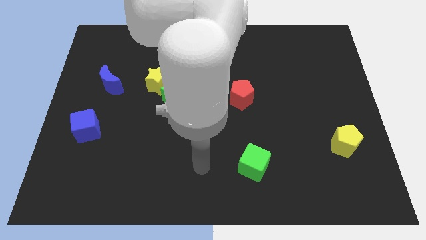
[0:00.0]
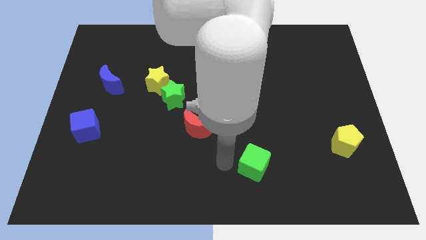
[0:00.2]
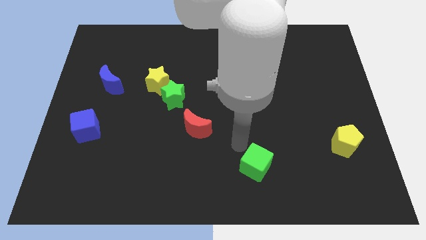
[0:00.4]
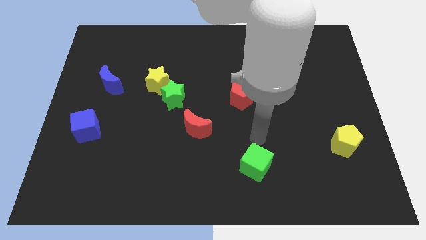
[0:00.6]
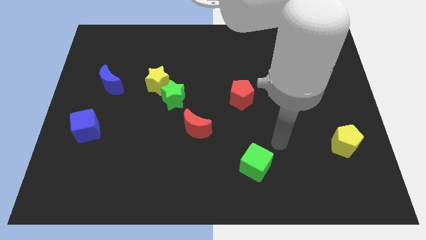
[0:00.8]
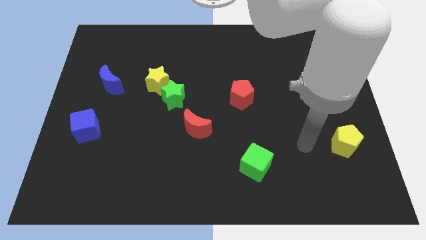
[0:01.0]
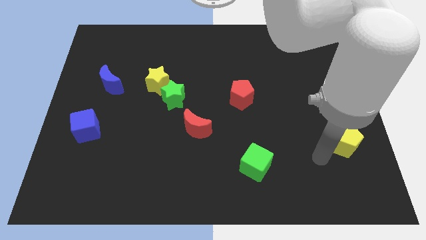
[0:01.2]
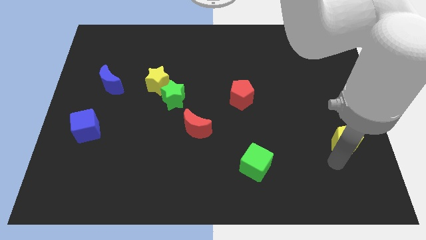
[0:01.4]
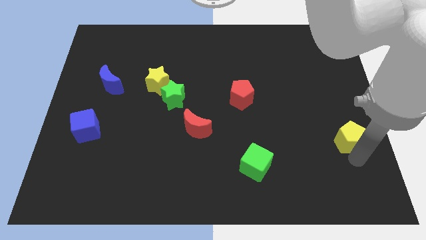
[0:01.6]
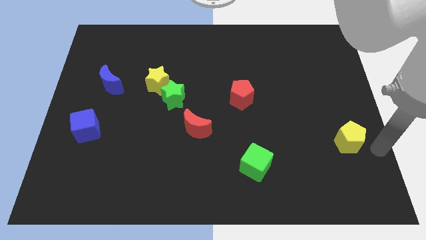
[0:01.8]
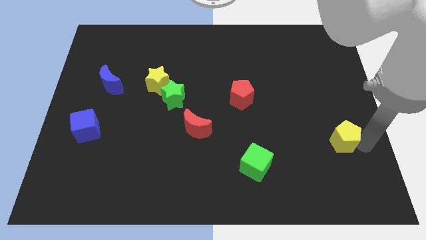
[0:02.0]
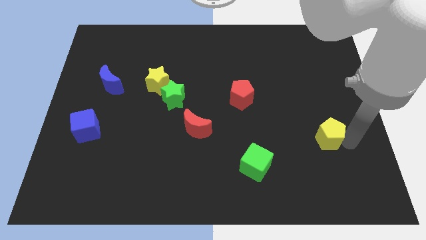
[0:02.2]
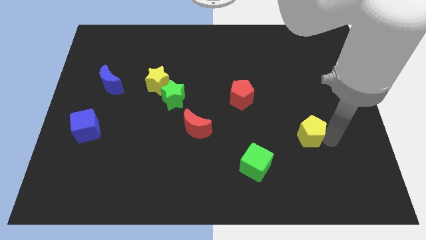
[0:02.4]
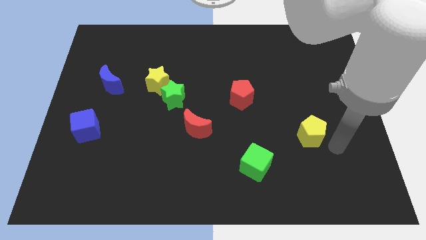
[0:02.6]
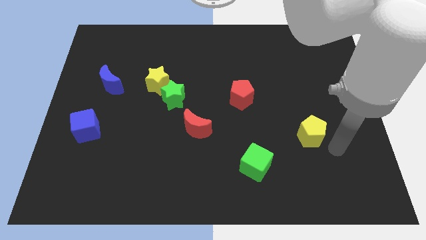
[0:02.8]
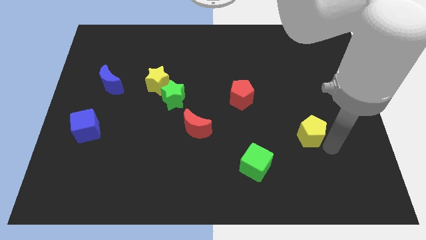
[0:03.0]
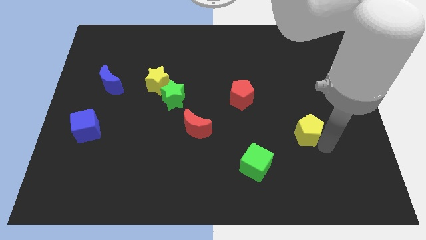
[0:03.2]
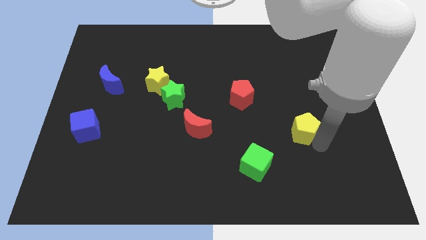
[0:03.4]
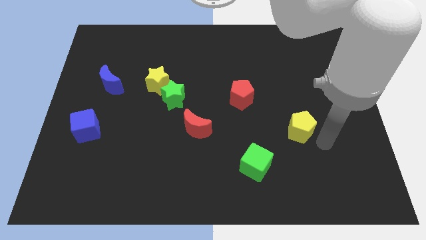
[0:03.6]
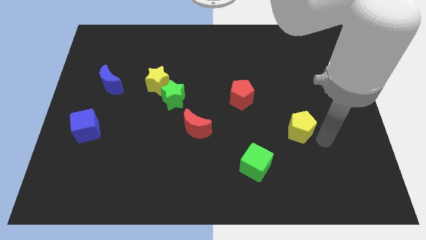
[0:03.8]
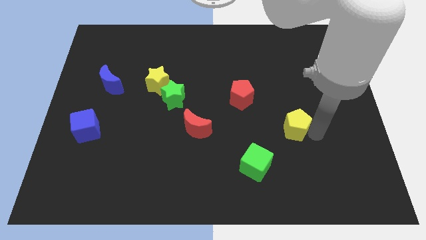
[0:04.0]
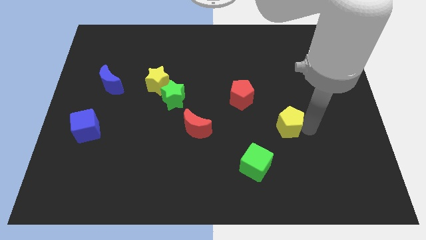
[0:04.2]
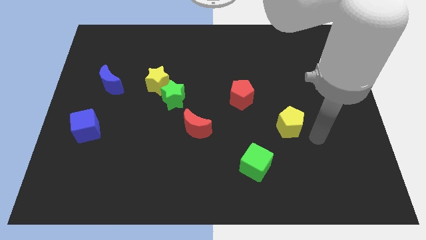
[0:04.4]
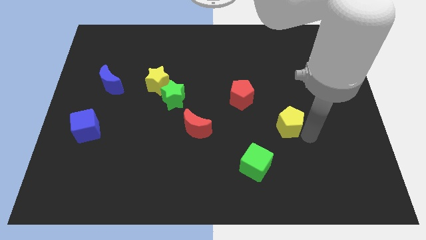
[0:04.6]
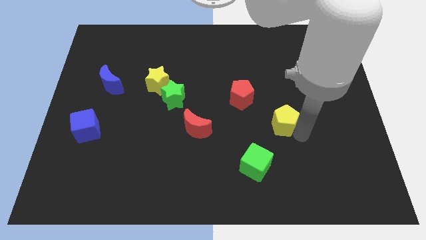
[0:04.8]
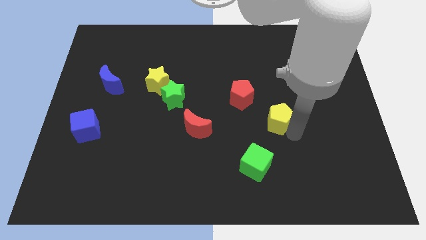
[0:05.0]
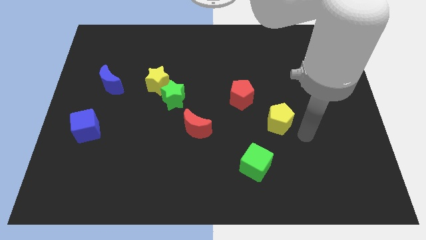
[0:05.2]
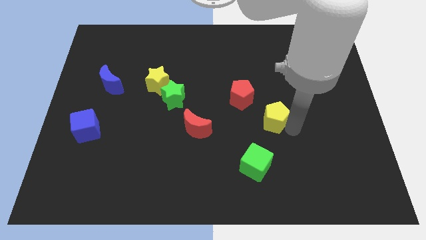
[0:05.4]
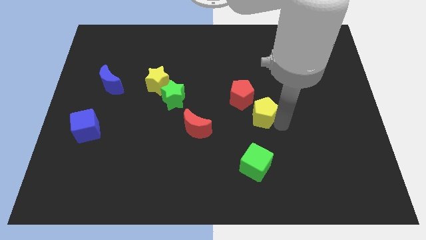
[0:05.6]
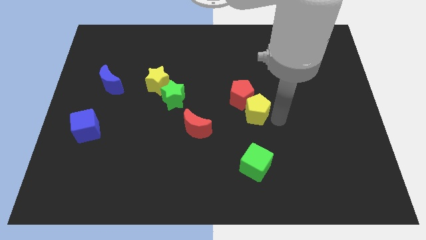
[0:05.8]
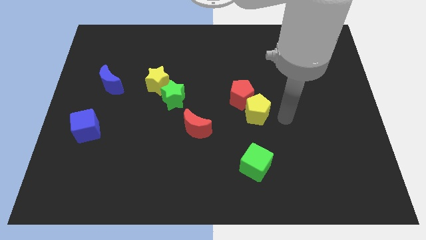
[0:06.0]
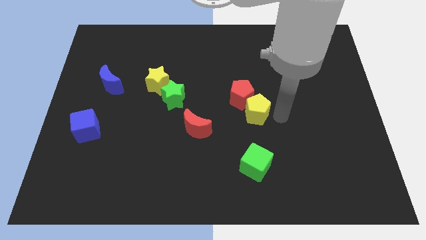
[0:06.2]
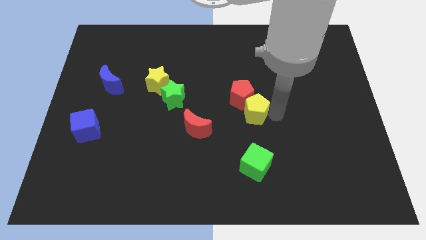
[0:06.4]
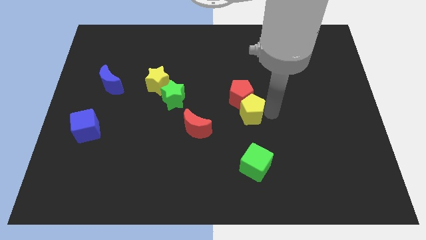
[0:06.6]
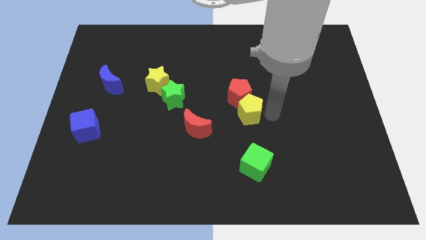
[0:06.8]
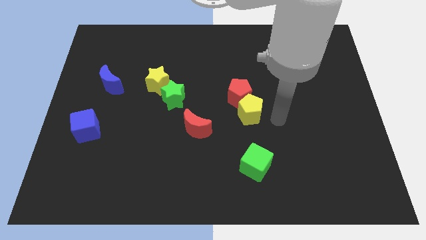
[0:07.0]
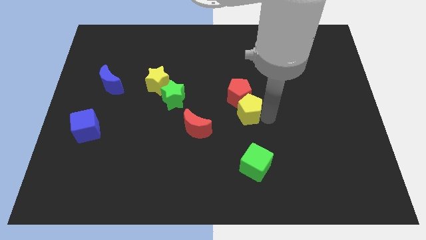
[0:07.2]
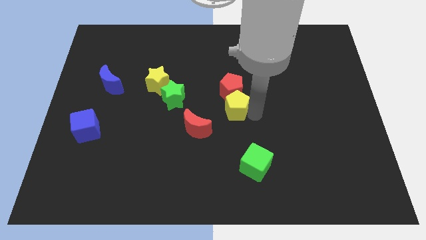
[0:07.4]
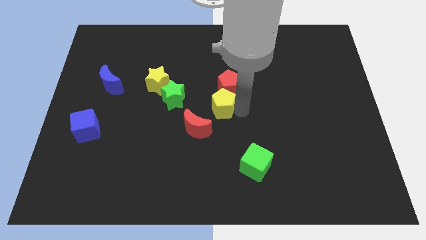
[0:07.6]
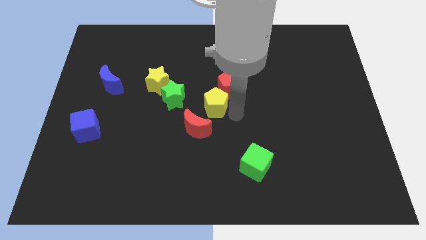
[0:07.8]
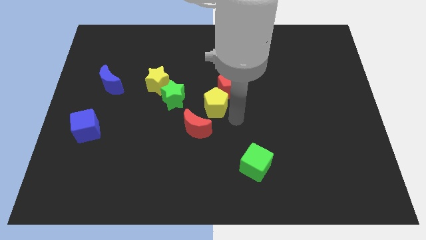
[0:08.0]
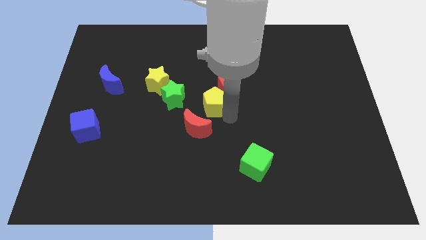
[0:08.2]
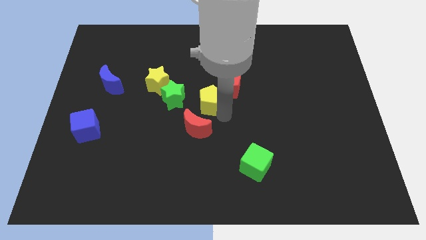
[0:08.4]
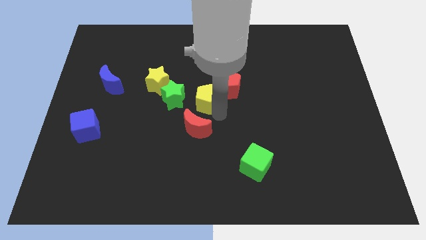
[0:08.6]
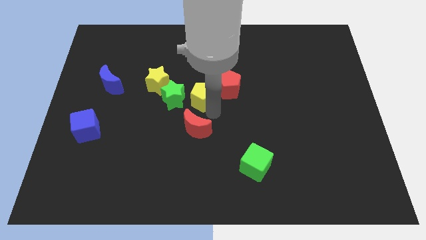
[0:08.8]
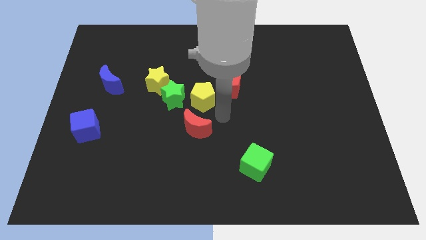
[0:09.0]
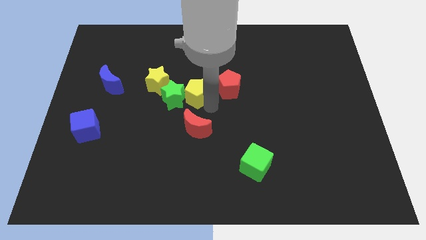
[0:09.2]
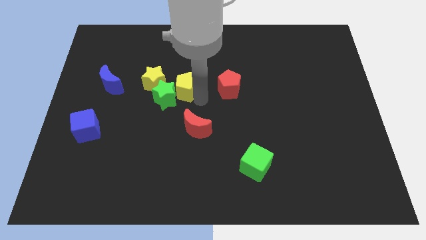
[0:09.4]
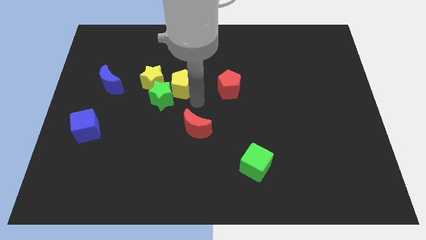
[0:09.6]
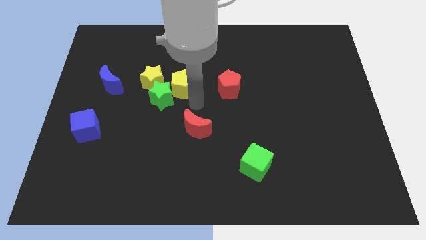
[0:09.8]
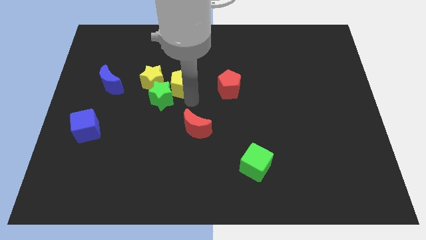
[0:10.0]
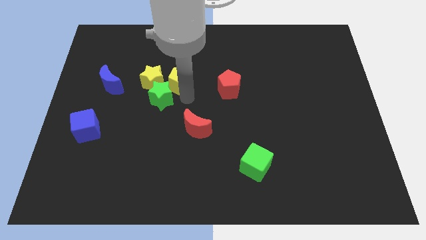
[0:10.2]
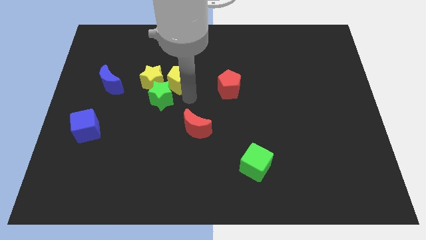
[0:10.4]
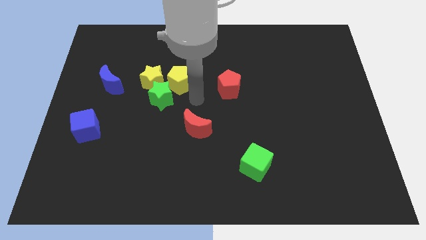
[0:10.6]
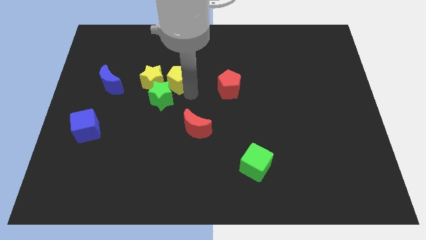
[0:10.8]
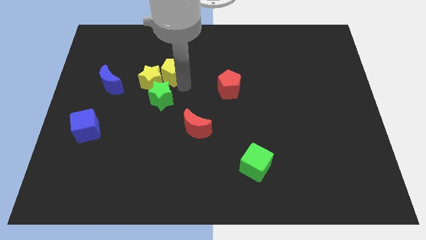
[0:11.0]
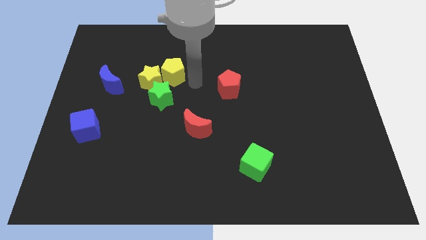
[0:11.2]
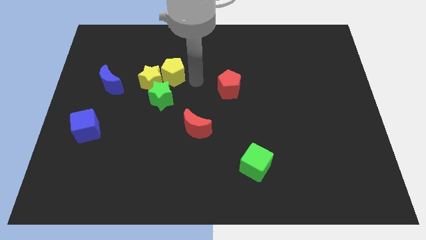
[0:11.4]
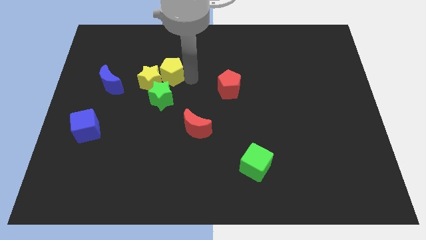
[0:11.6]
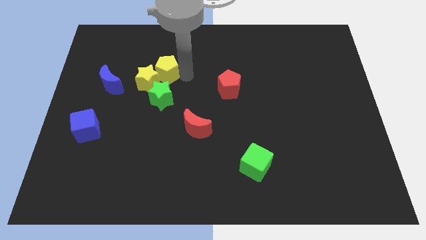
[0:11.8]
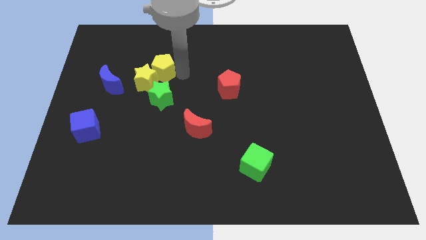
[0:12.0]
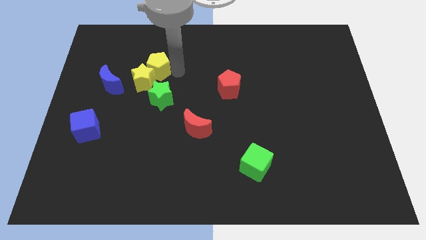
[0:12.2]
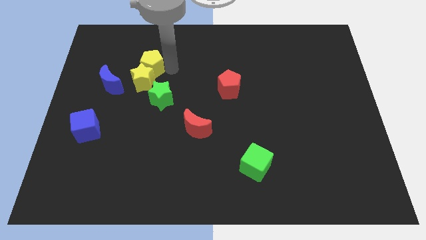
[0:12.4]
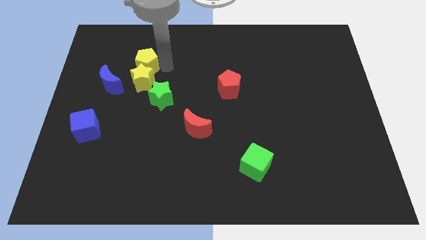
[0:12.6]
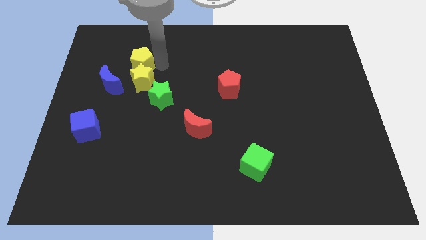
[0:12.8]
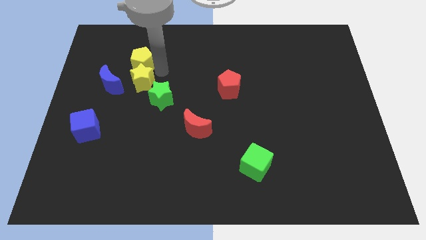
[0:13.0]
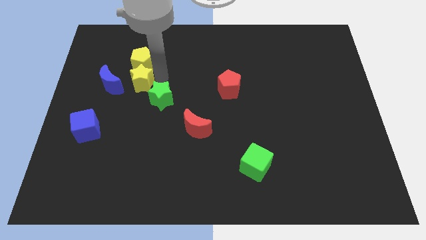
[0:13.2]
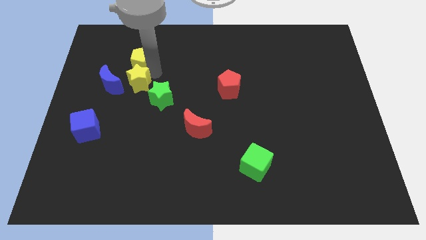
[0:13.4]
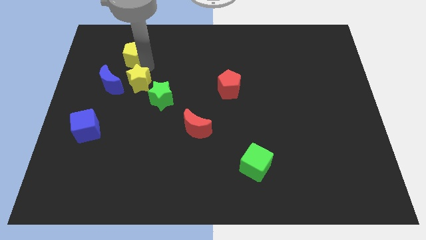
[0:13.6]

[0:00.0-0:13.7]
put the yellow pentagon to the top side of the blue moon

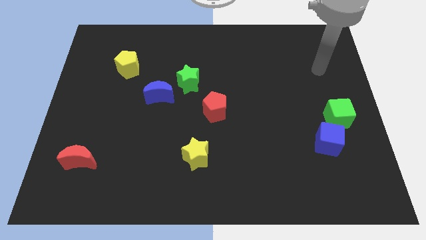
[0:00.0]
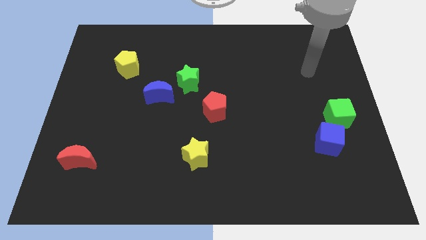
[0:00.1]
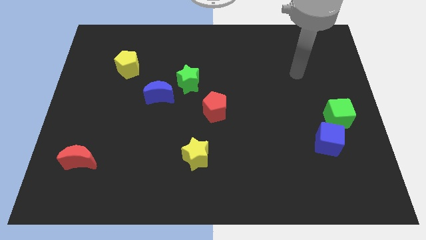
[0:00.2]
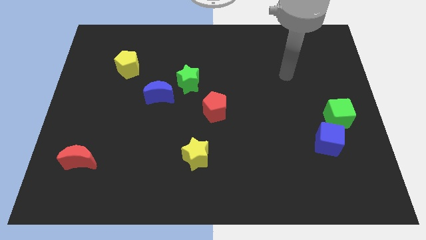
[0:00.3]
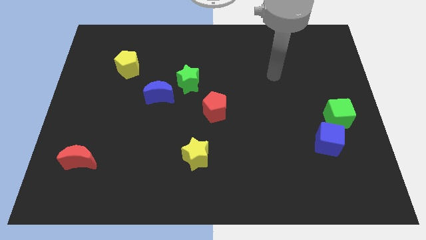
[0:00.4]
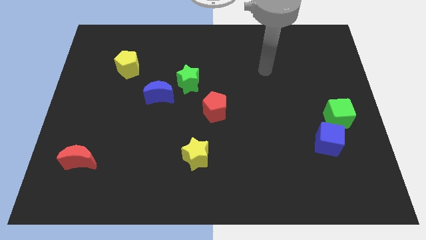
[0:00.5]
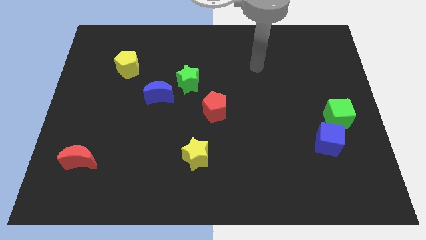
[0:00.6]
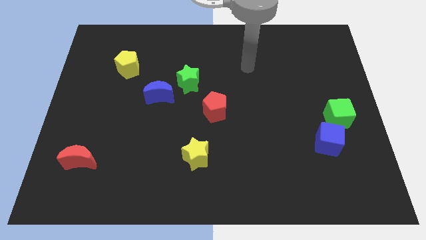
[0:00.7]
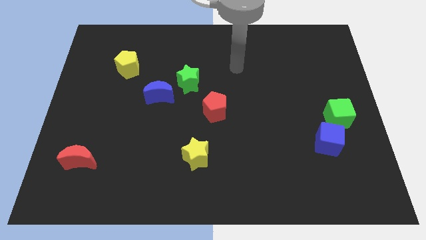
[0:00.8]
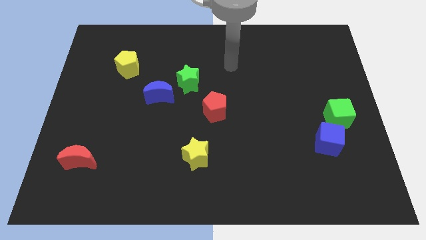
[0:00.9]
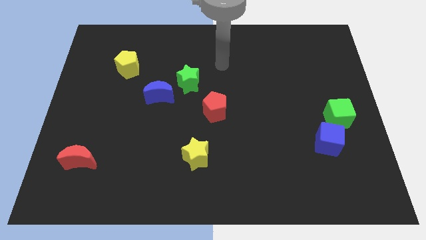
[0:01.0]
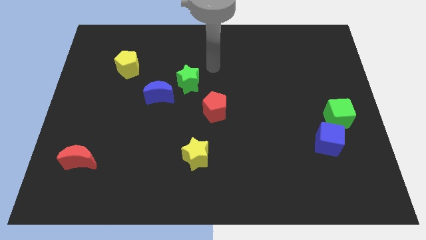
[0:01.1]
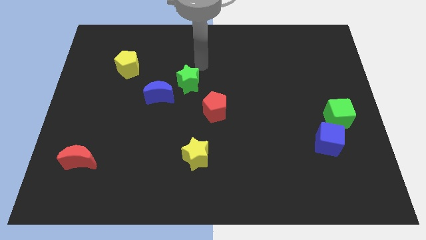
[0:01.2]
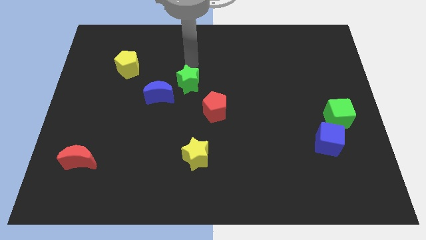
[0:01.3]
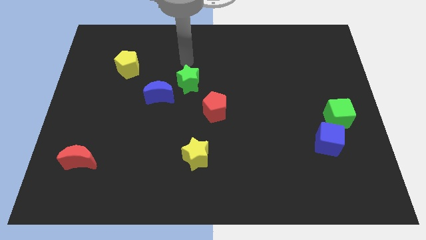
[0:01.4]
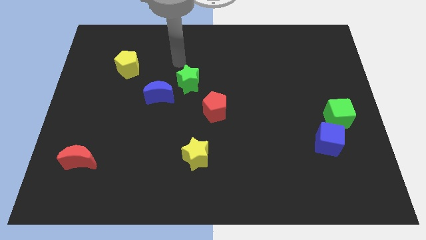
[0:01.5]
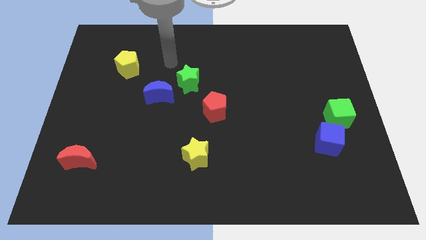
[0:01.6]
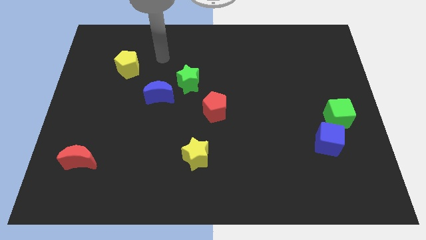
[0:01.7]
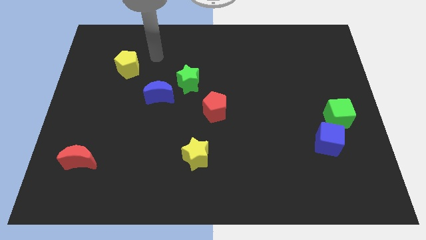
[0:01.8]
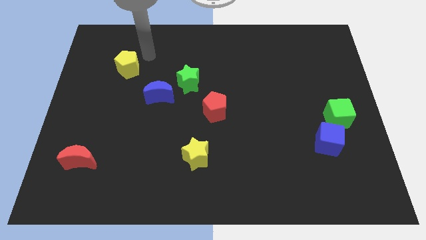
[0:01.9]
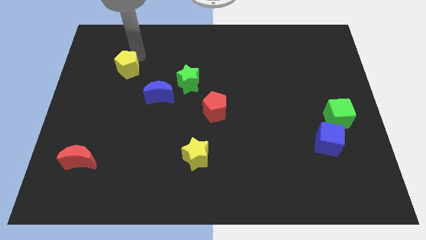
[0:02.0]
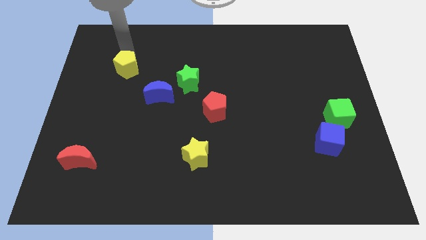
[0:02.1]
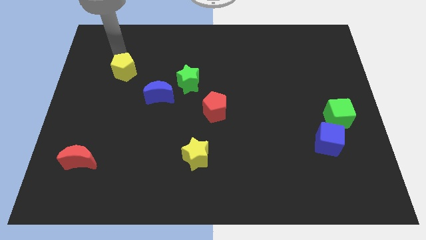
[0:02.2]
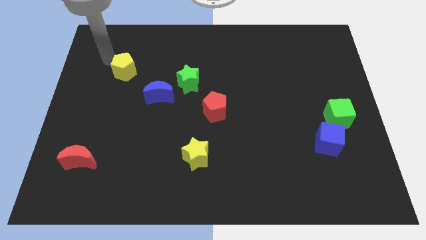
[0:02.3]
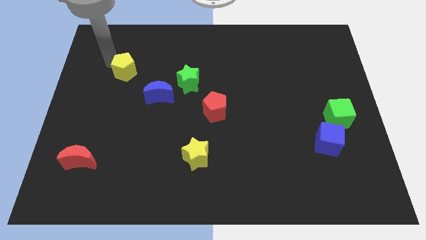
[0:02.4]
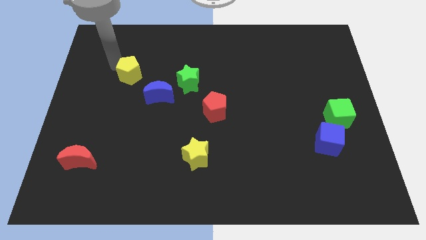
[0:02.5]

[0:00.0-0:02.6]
move the yellow pentagon to the left side of the green star
